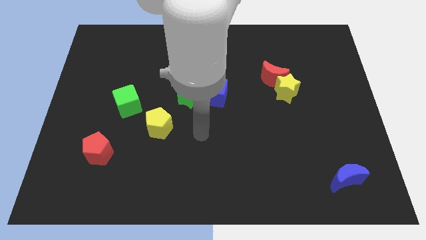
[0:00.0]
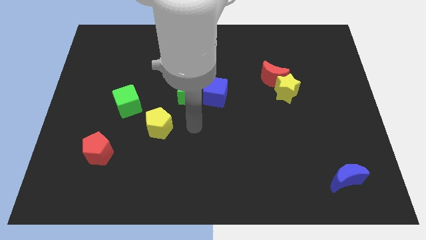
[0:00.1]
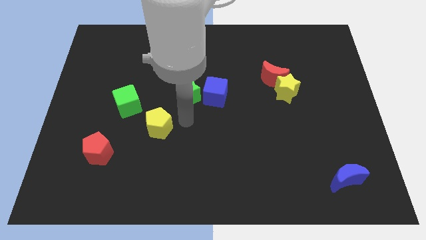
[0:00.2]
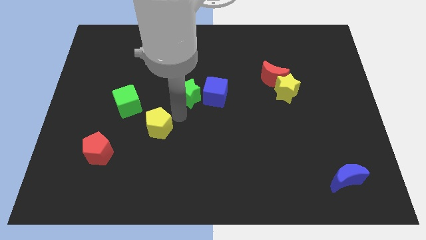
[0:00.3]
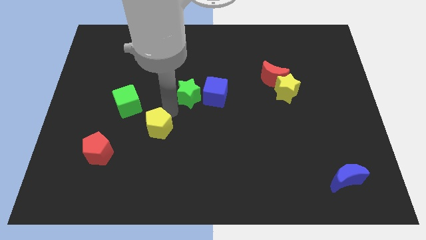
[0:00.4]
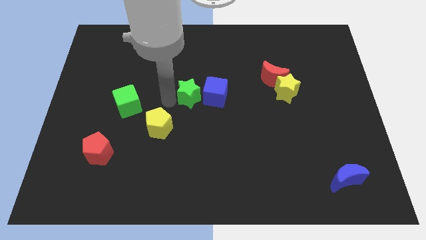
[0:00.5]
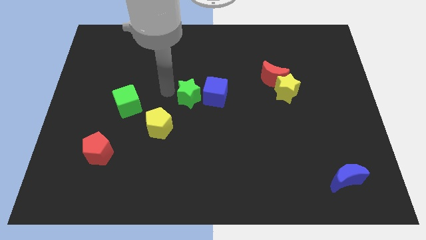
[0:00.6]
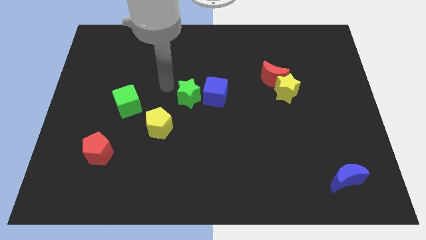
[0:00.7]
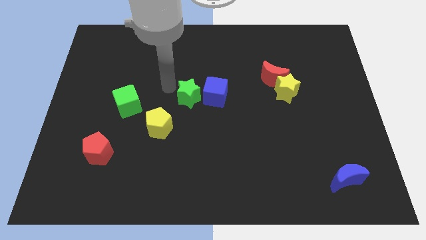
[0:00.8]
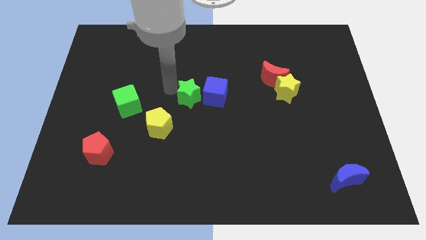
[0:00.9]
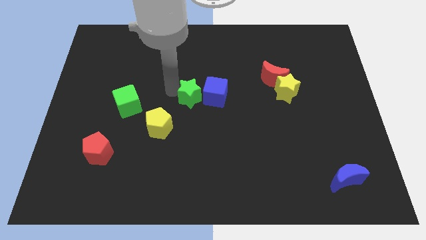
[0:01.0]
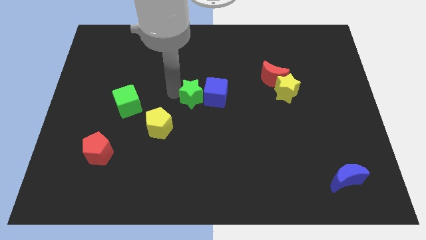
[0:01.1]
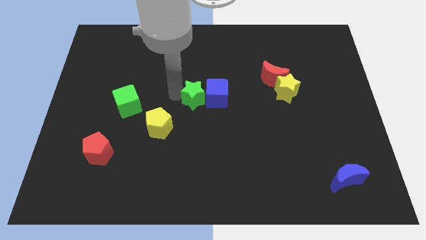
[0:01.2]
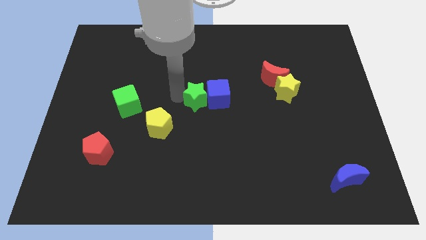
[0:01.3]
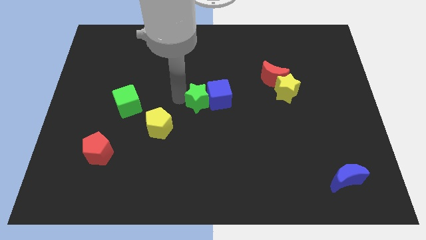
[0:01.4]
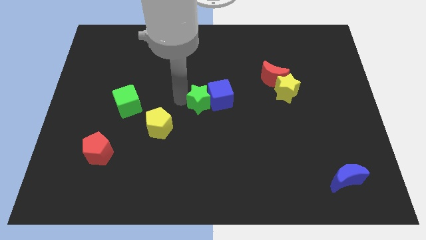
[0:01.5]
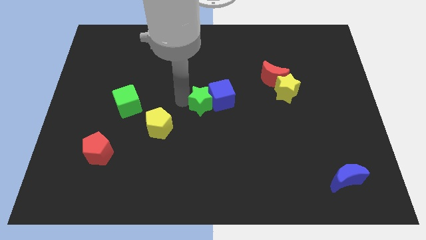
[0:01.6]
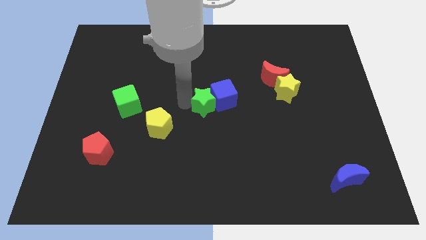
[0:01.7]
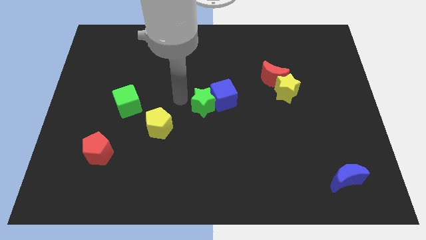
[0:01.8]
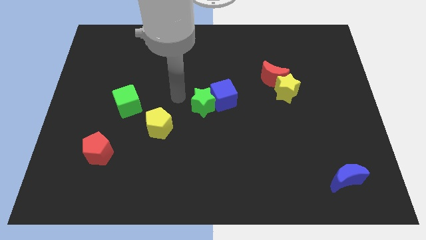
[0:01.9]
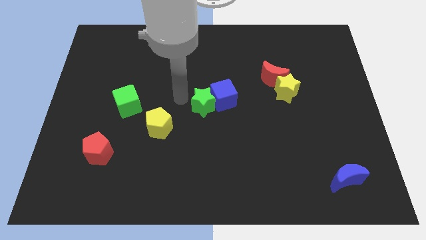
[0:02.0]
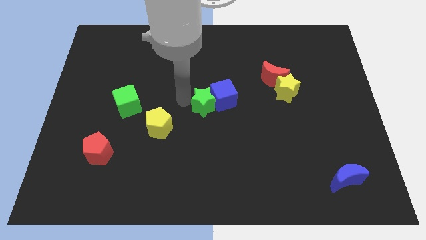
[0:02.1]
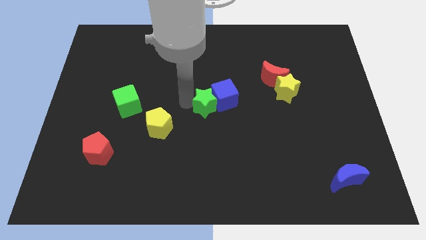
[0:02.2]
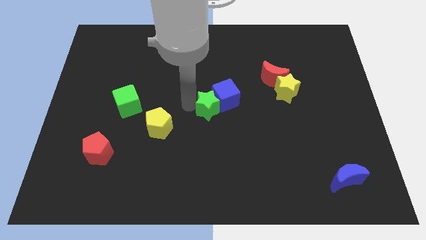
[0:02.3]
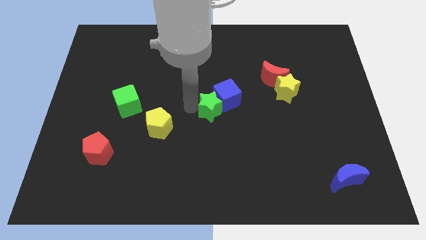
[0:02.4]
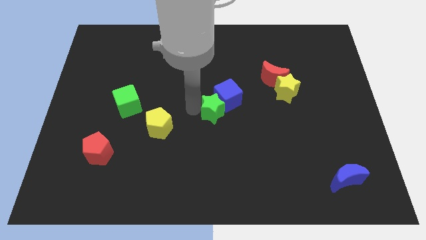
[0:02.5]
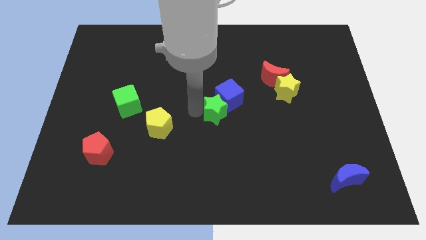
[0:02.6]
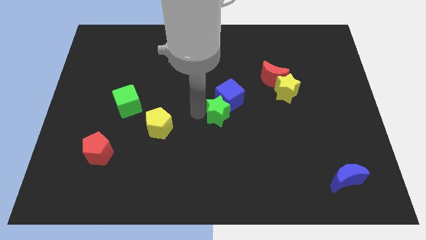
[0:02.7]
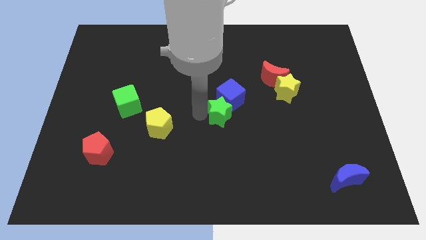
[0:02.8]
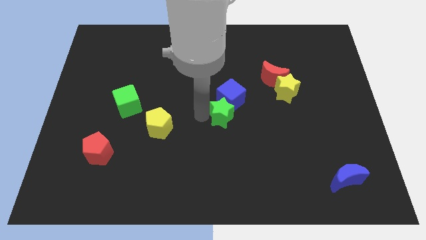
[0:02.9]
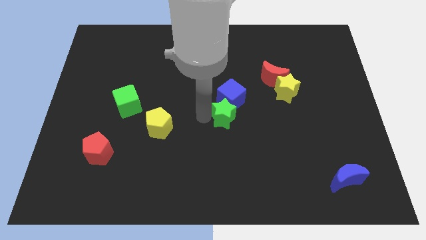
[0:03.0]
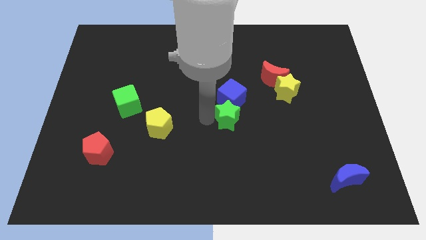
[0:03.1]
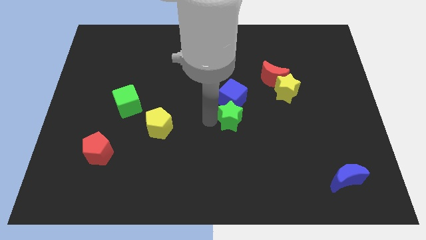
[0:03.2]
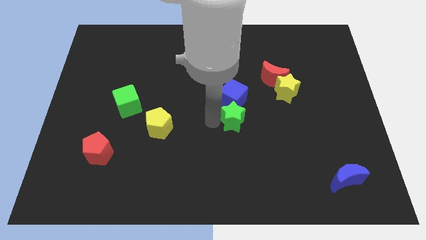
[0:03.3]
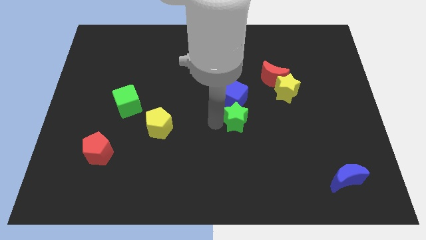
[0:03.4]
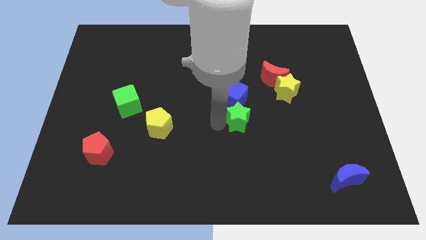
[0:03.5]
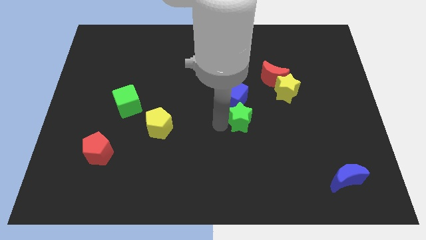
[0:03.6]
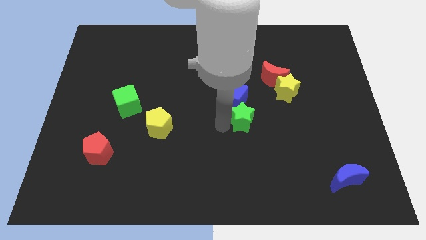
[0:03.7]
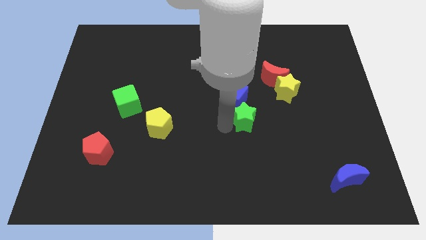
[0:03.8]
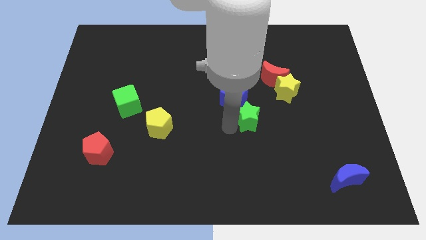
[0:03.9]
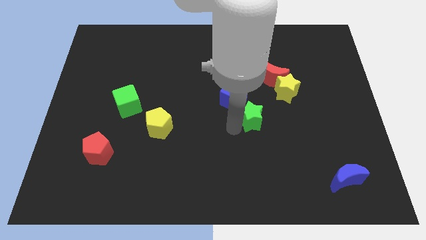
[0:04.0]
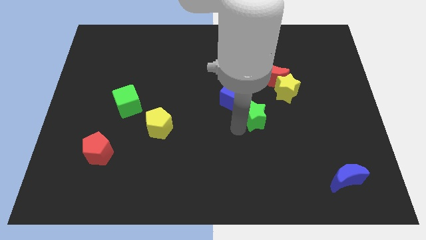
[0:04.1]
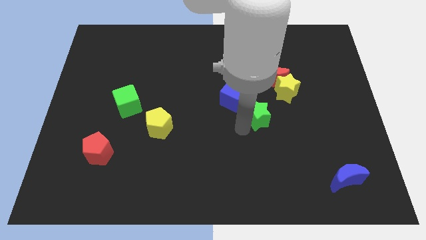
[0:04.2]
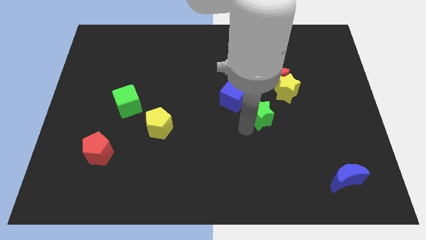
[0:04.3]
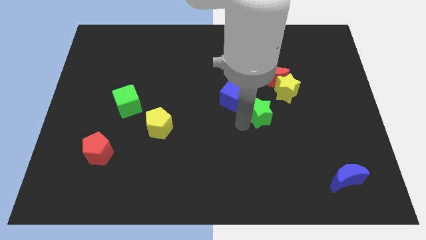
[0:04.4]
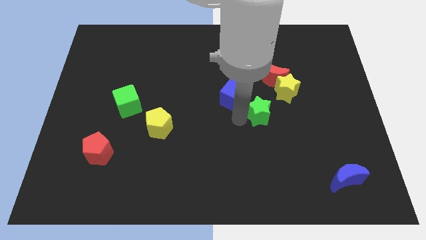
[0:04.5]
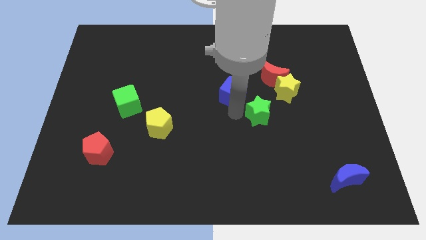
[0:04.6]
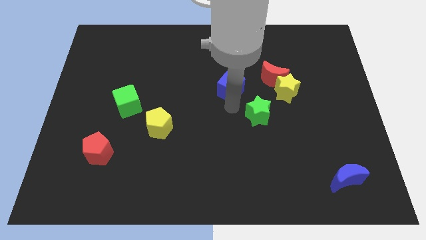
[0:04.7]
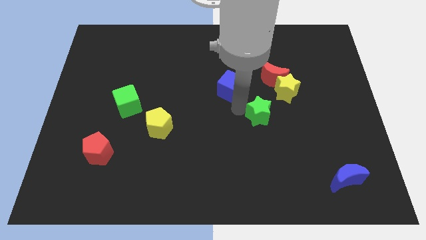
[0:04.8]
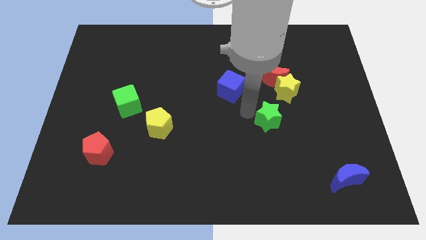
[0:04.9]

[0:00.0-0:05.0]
slide the green star to the bottom side of the yellow star

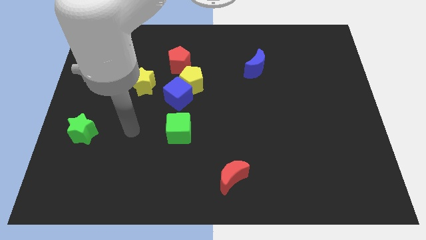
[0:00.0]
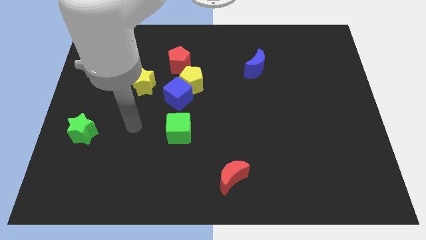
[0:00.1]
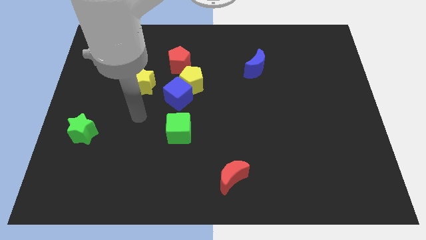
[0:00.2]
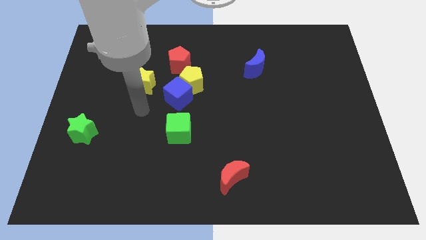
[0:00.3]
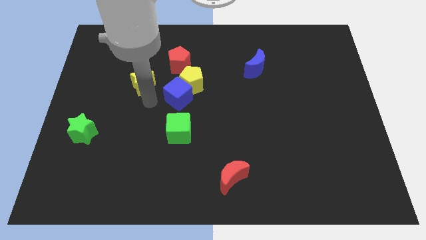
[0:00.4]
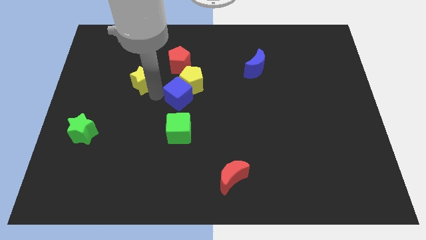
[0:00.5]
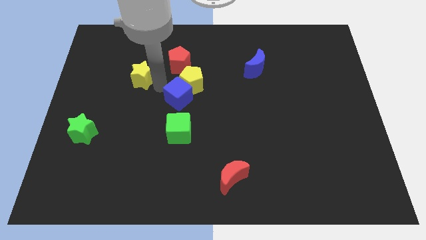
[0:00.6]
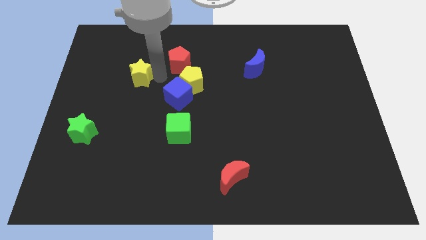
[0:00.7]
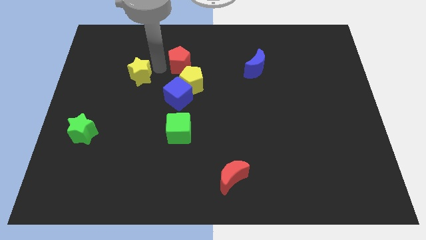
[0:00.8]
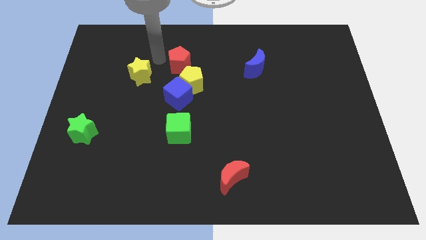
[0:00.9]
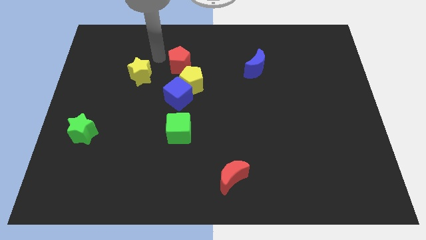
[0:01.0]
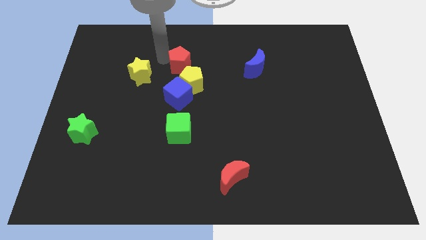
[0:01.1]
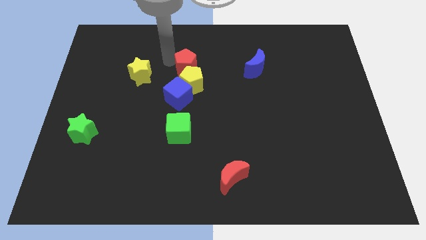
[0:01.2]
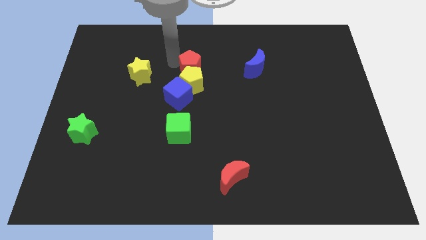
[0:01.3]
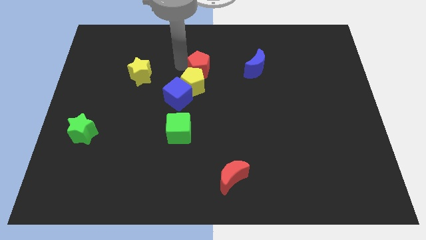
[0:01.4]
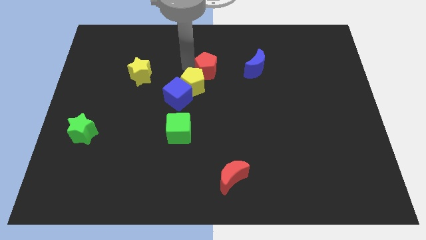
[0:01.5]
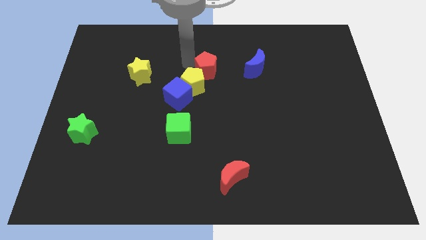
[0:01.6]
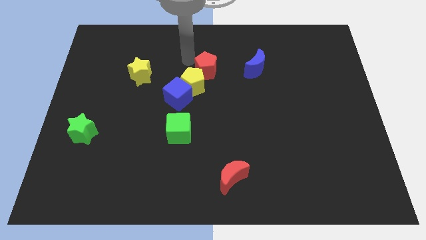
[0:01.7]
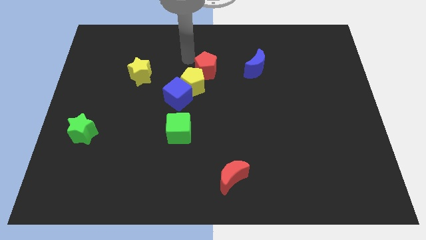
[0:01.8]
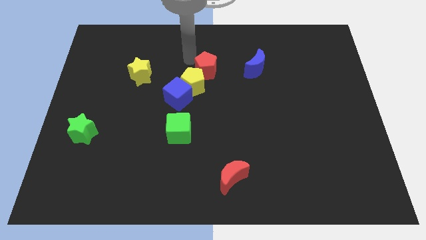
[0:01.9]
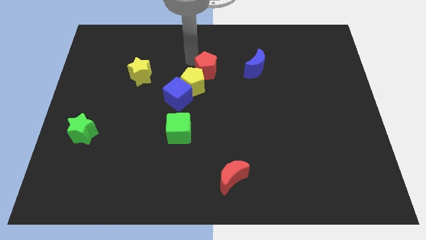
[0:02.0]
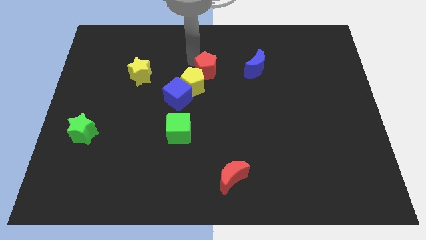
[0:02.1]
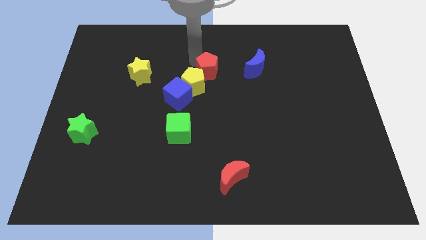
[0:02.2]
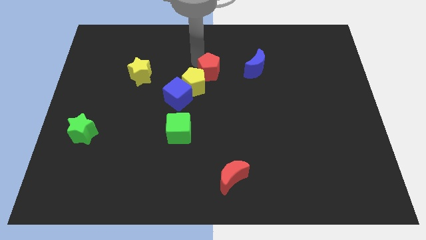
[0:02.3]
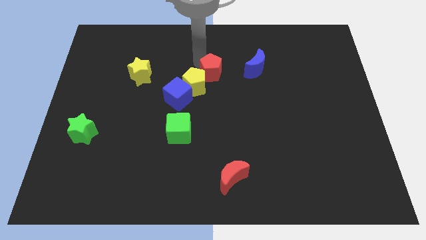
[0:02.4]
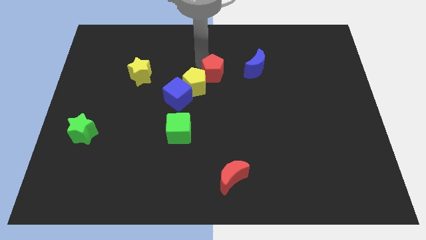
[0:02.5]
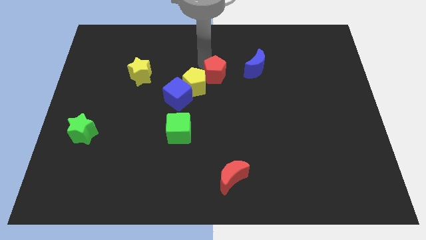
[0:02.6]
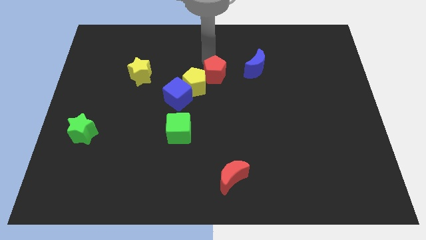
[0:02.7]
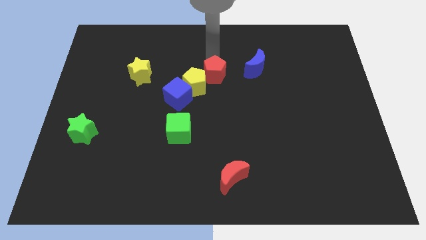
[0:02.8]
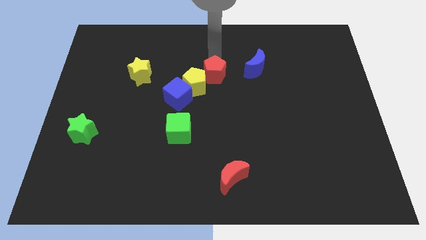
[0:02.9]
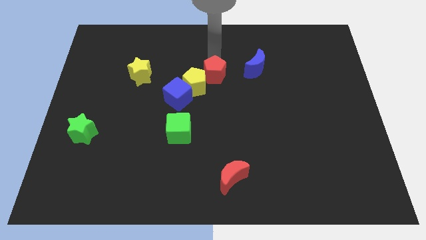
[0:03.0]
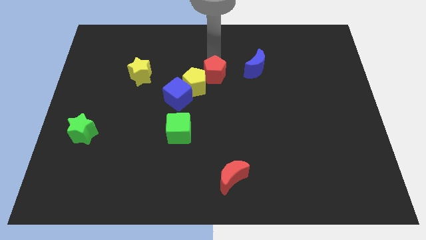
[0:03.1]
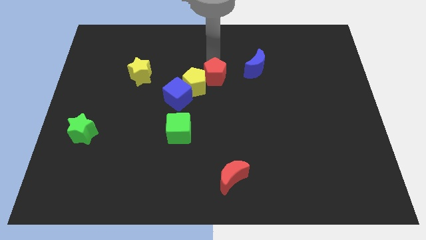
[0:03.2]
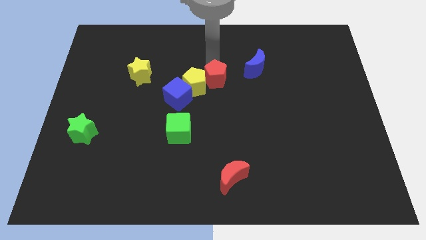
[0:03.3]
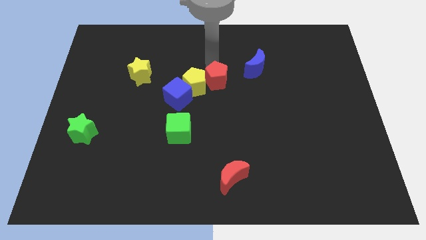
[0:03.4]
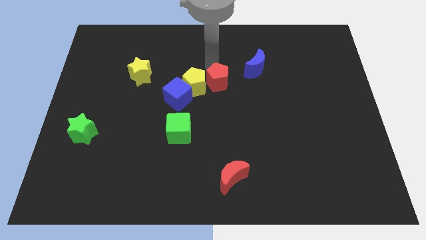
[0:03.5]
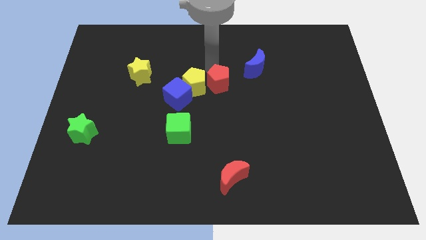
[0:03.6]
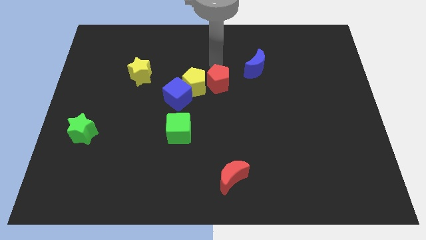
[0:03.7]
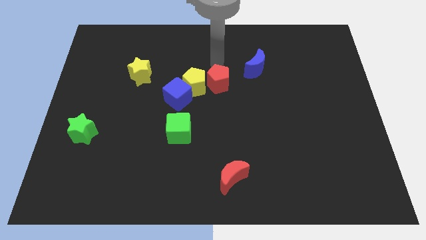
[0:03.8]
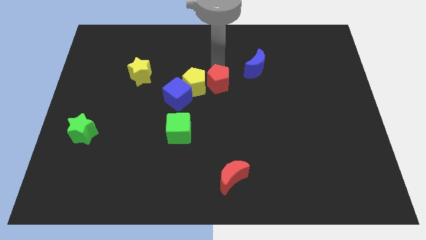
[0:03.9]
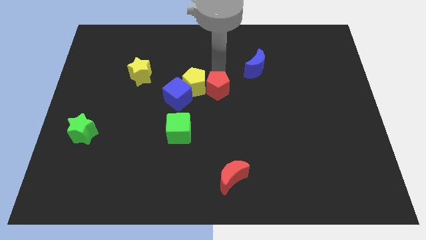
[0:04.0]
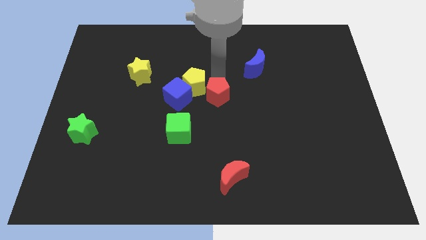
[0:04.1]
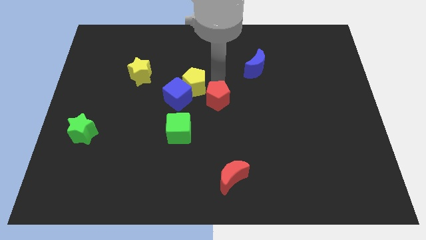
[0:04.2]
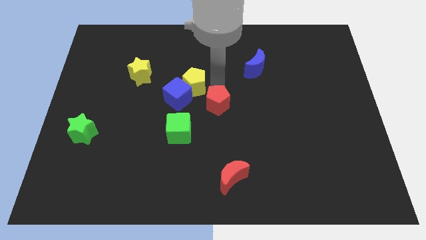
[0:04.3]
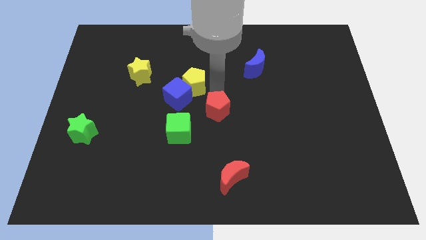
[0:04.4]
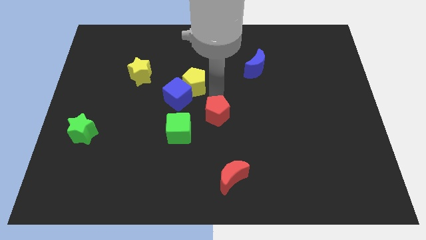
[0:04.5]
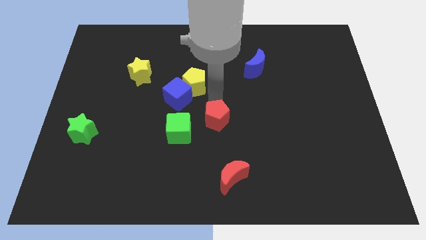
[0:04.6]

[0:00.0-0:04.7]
slide the red pentagon above the red moon
